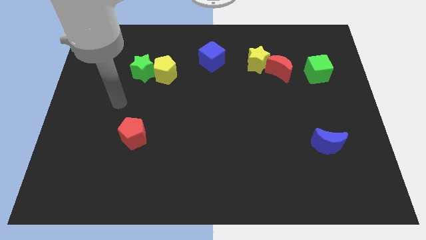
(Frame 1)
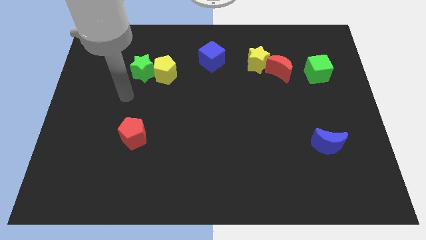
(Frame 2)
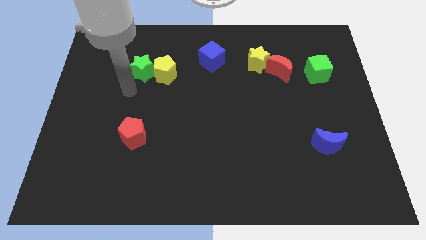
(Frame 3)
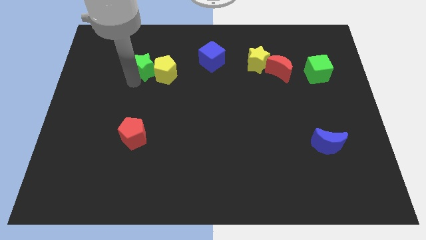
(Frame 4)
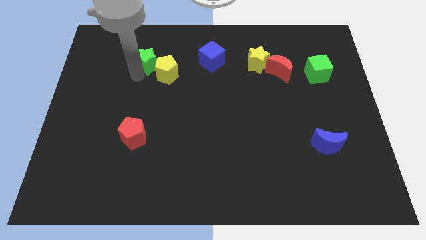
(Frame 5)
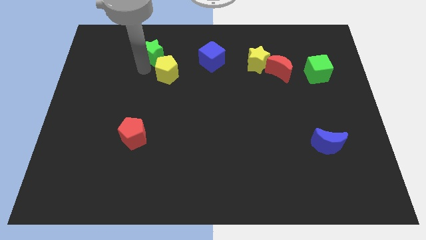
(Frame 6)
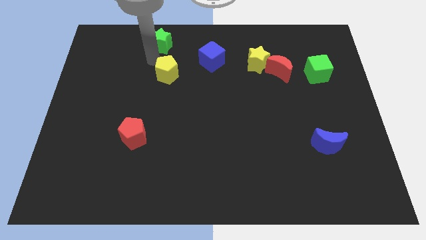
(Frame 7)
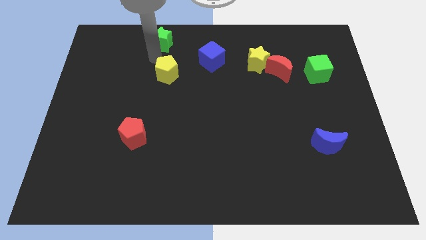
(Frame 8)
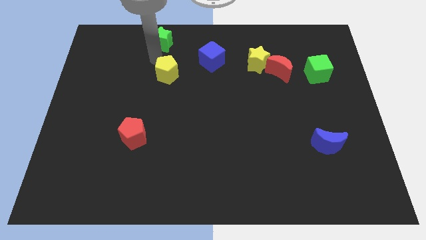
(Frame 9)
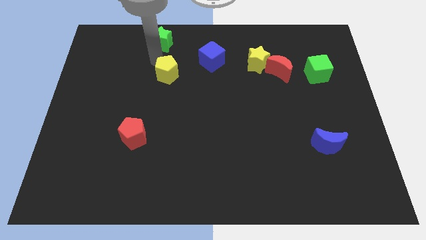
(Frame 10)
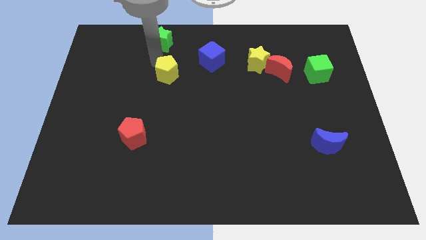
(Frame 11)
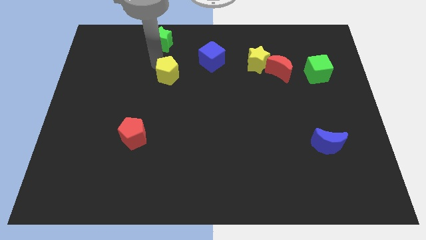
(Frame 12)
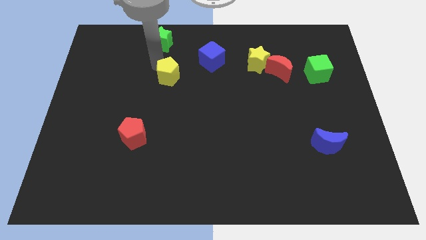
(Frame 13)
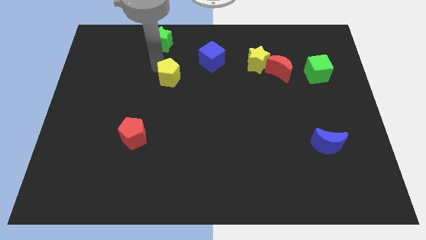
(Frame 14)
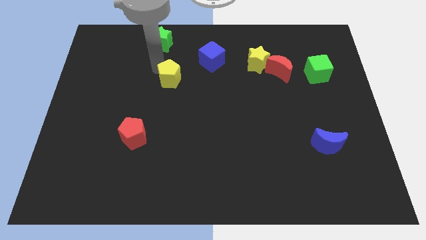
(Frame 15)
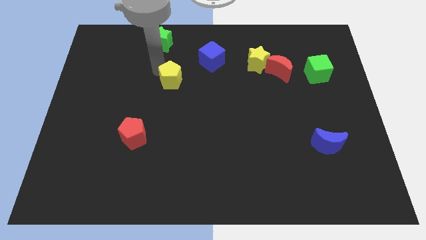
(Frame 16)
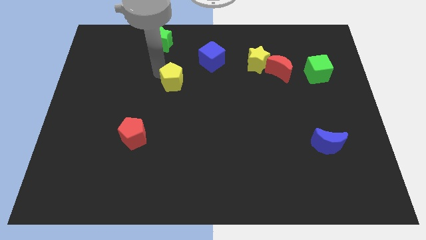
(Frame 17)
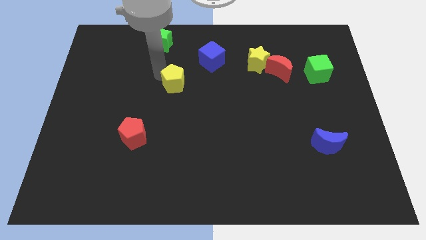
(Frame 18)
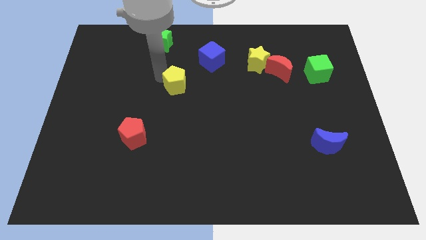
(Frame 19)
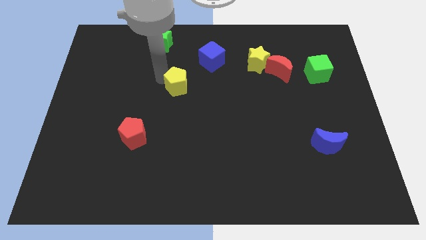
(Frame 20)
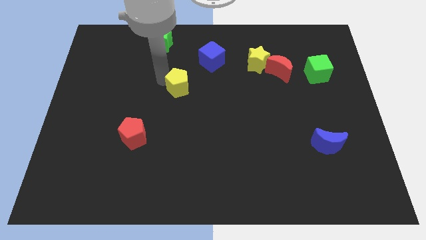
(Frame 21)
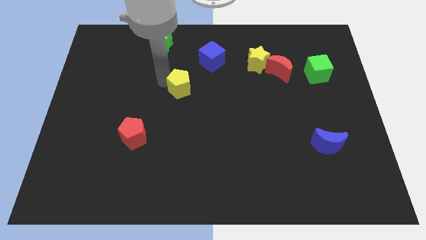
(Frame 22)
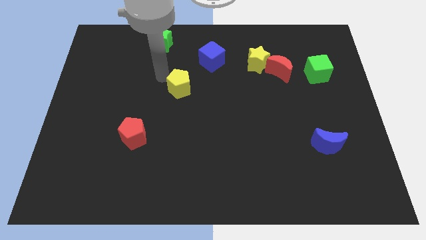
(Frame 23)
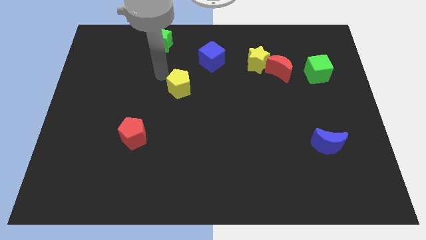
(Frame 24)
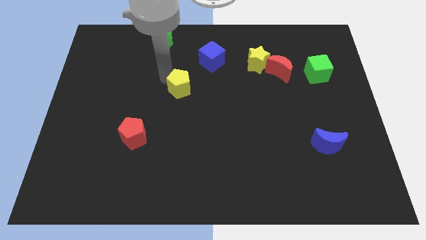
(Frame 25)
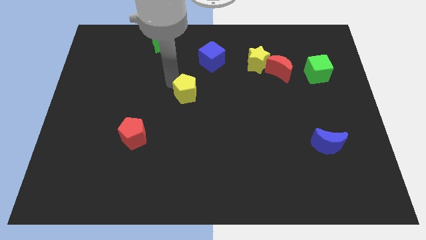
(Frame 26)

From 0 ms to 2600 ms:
slide the yellow pentagon downwards and right diagonally slightly

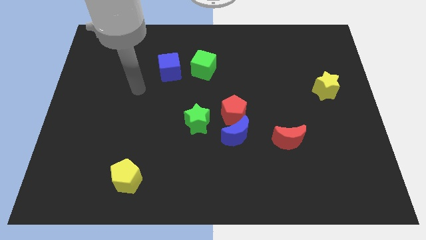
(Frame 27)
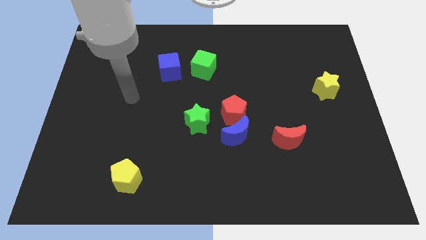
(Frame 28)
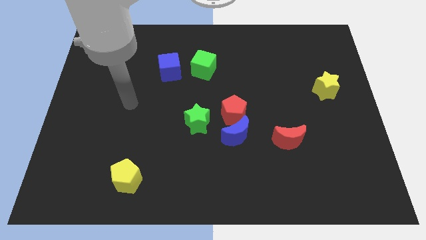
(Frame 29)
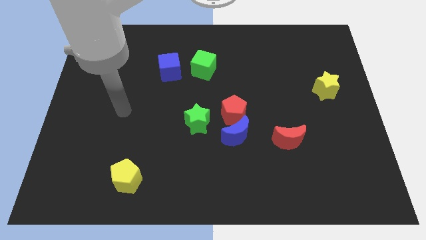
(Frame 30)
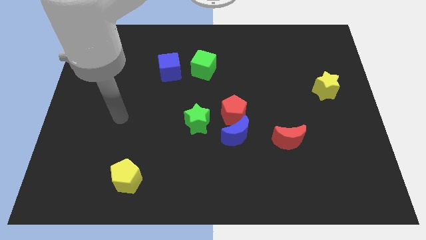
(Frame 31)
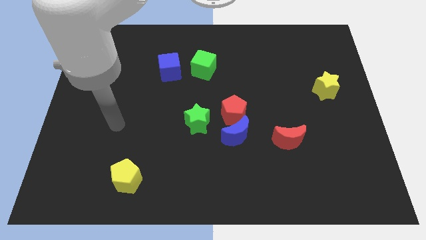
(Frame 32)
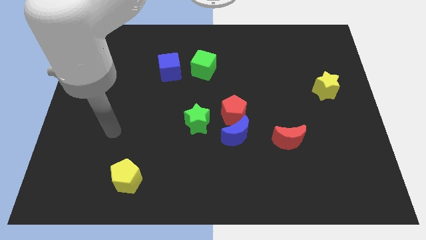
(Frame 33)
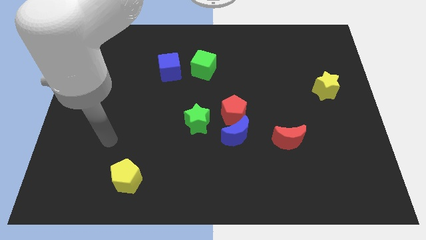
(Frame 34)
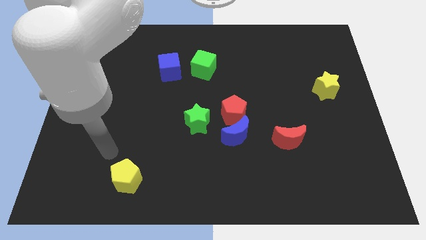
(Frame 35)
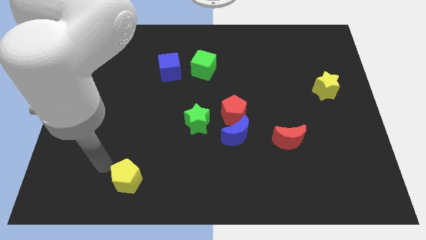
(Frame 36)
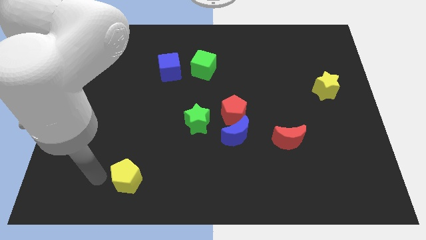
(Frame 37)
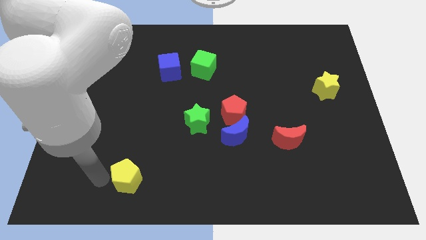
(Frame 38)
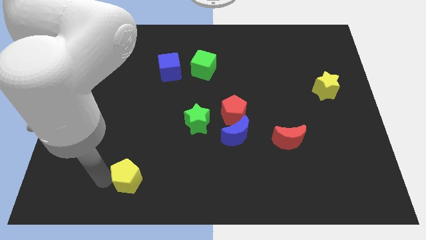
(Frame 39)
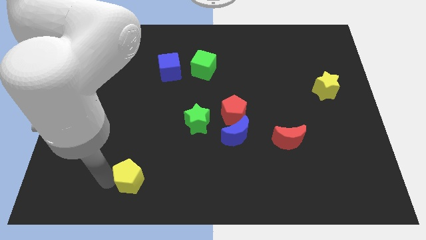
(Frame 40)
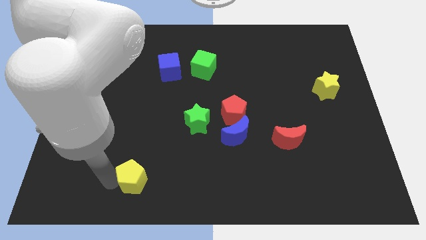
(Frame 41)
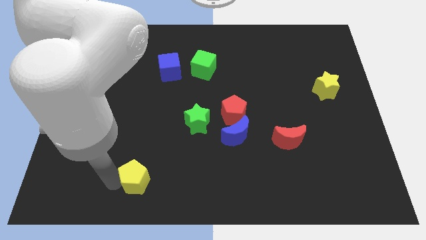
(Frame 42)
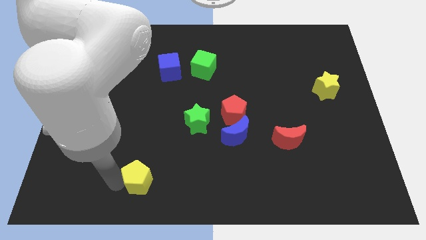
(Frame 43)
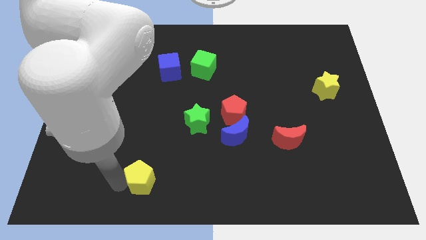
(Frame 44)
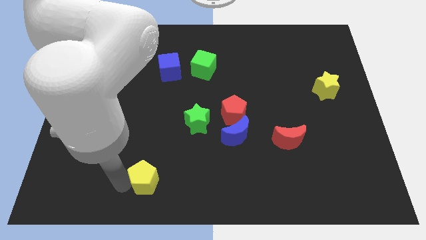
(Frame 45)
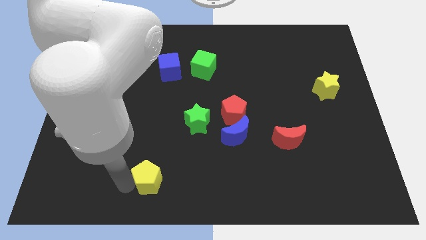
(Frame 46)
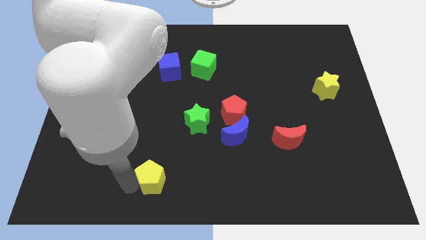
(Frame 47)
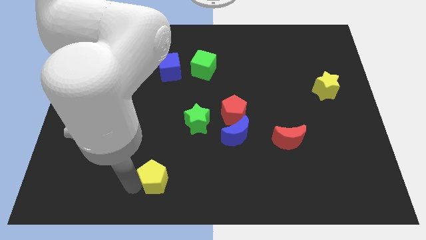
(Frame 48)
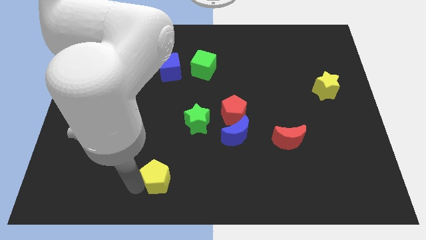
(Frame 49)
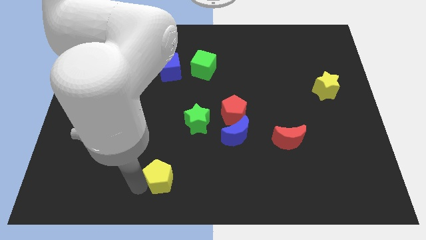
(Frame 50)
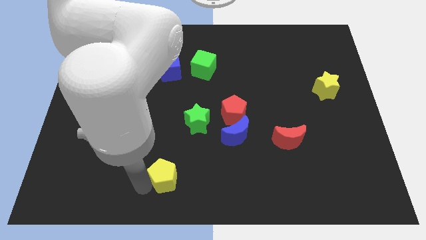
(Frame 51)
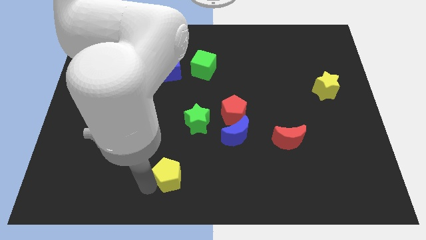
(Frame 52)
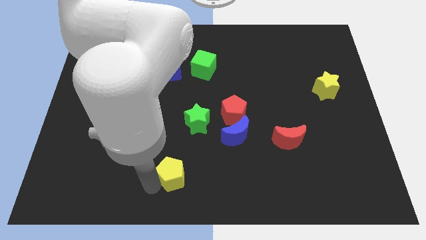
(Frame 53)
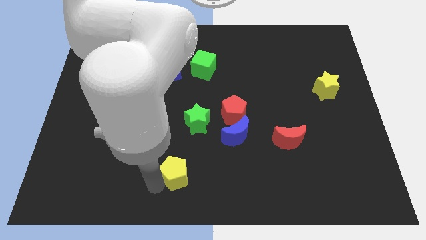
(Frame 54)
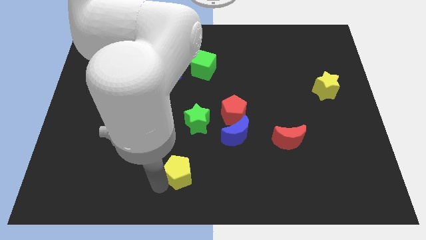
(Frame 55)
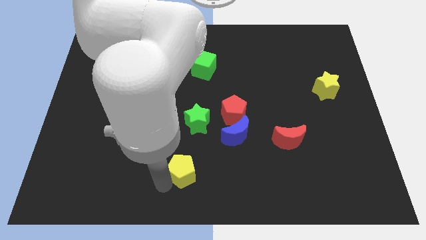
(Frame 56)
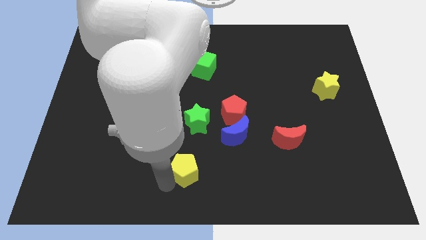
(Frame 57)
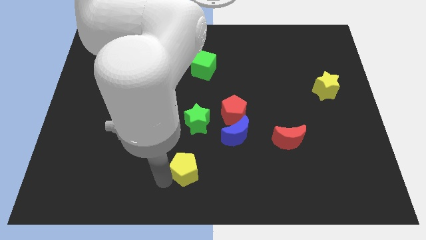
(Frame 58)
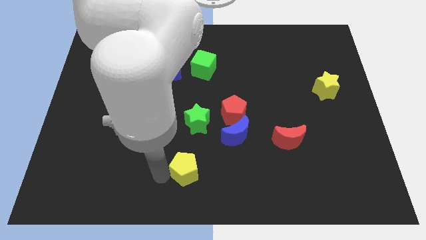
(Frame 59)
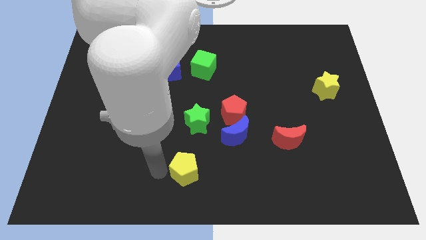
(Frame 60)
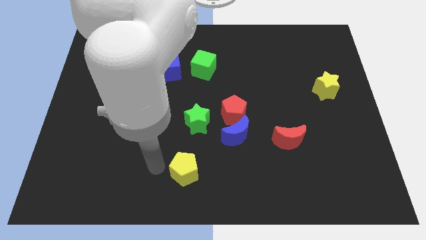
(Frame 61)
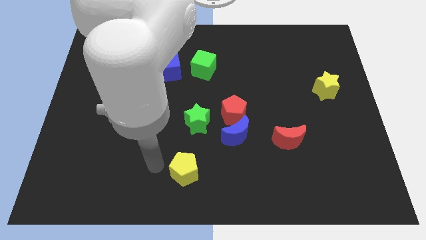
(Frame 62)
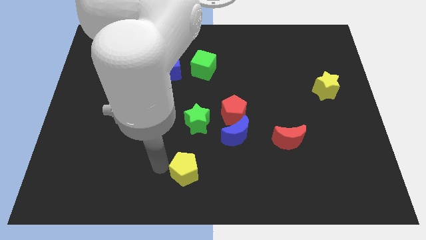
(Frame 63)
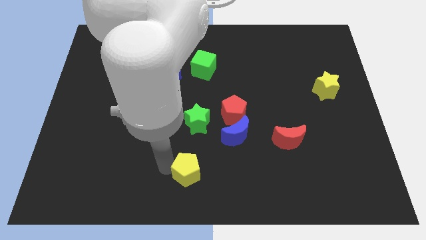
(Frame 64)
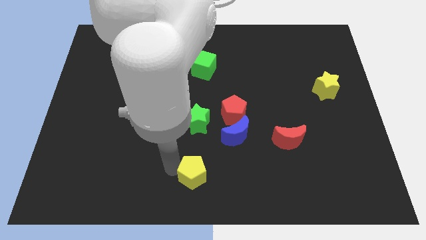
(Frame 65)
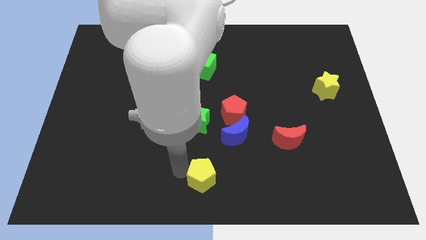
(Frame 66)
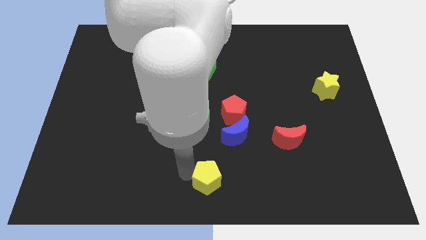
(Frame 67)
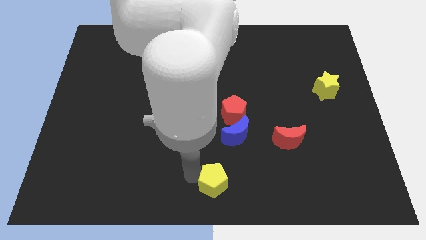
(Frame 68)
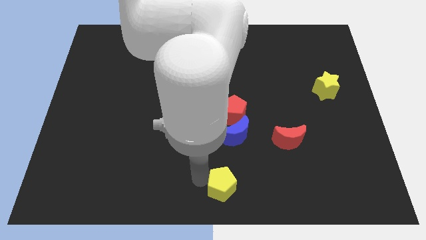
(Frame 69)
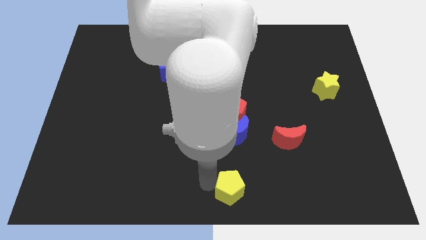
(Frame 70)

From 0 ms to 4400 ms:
move the yellow pentagon right

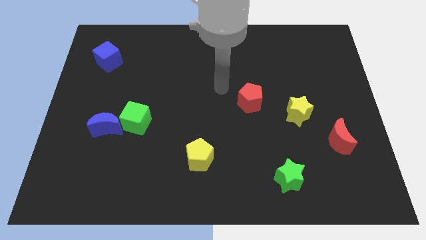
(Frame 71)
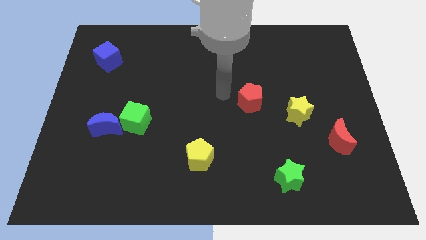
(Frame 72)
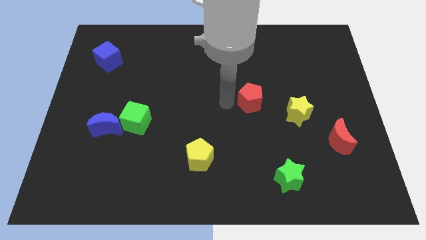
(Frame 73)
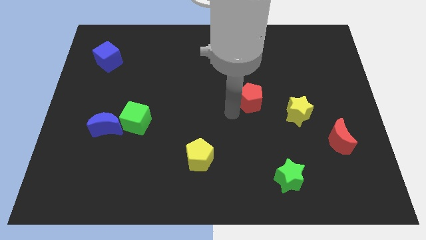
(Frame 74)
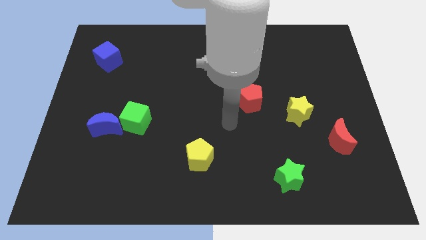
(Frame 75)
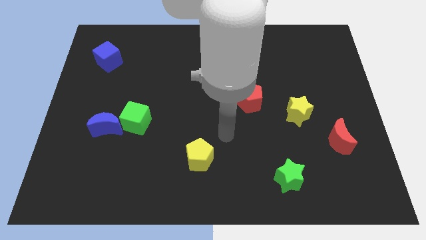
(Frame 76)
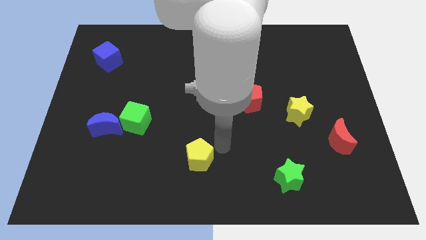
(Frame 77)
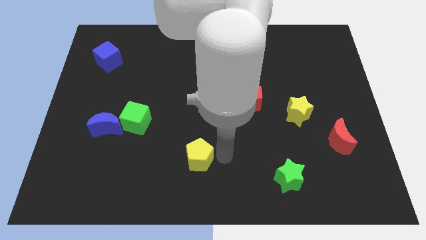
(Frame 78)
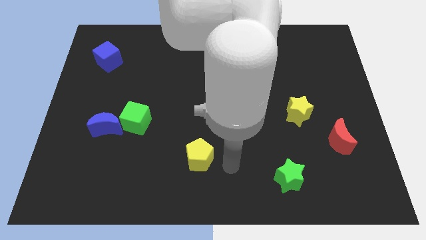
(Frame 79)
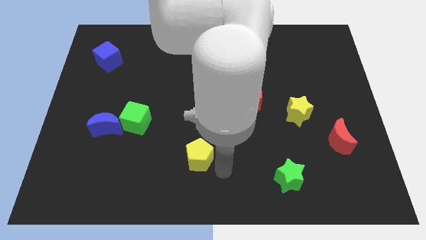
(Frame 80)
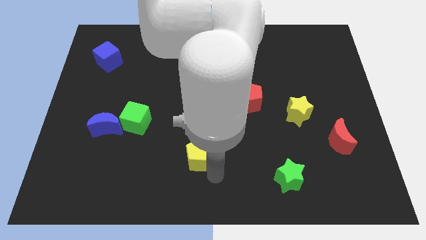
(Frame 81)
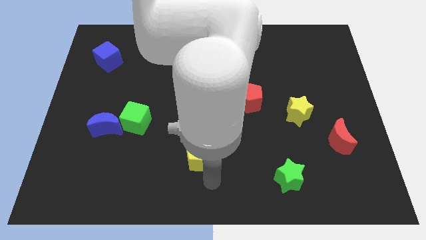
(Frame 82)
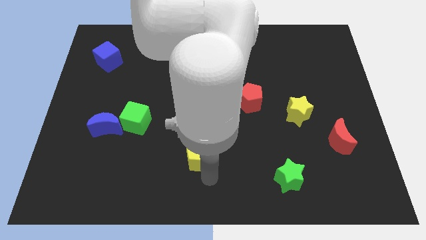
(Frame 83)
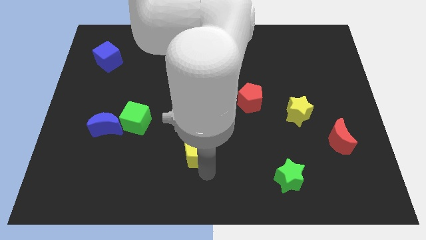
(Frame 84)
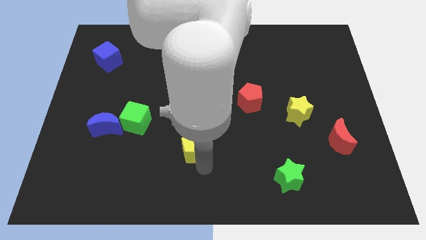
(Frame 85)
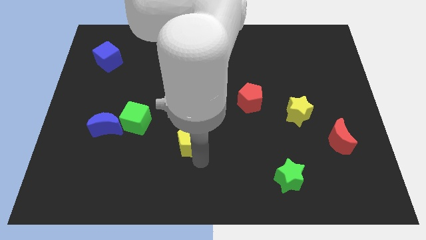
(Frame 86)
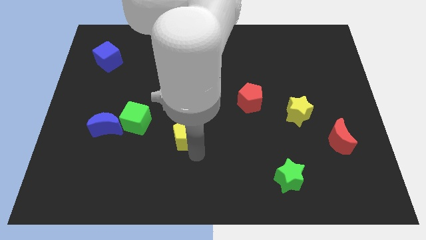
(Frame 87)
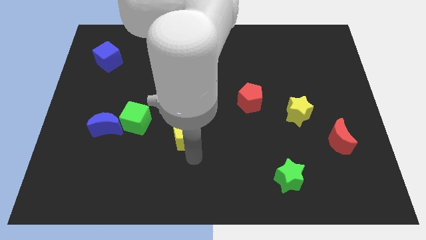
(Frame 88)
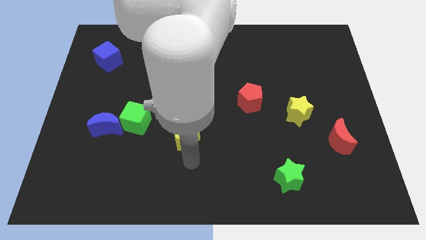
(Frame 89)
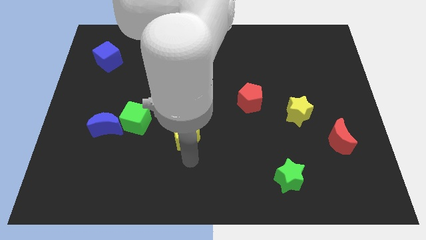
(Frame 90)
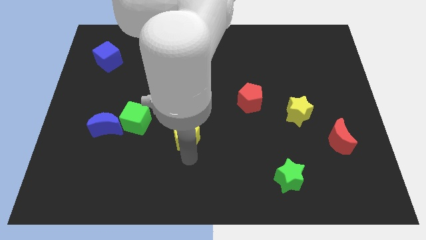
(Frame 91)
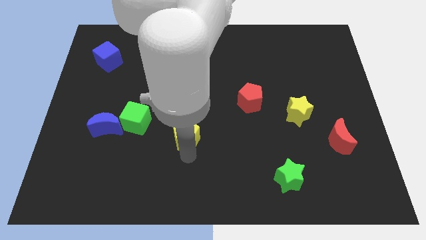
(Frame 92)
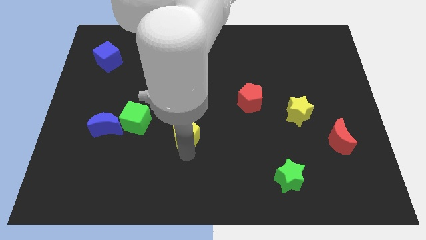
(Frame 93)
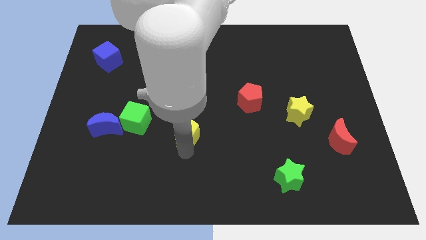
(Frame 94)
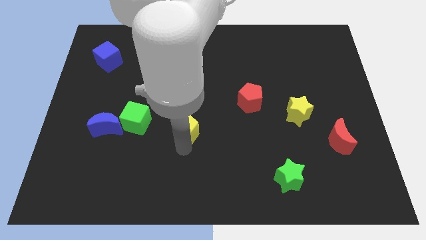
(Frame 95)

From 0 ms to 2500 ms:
slightly move the yellow pentagon upwards and then to the left
